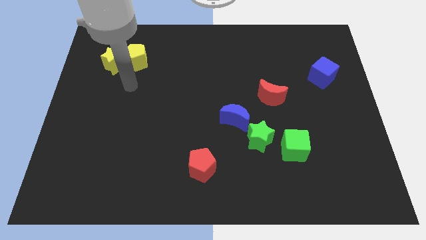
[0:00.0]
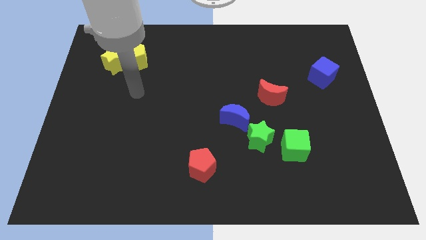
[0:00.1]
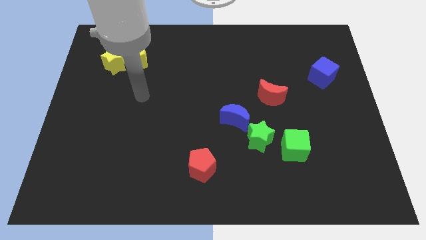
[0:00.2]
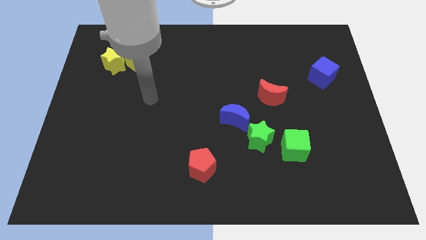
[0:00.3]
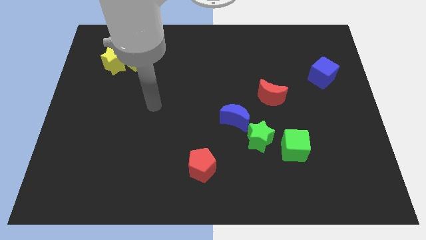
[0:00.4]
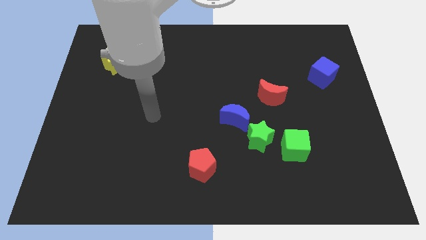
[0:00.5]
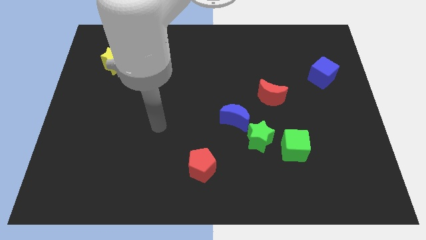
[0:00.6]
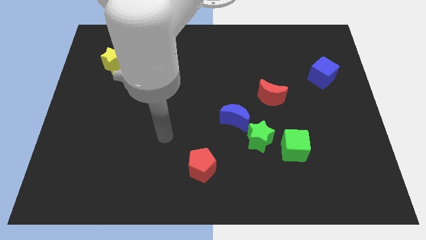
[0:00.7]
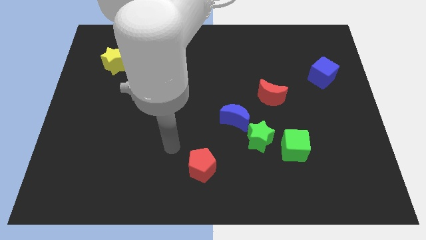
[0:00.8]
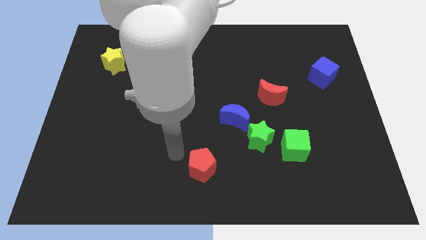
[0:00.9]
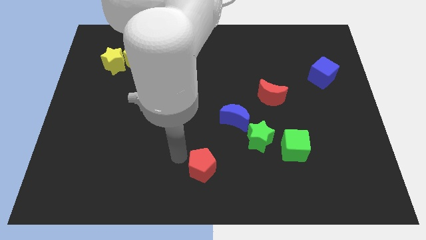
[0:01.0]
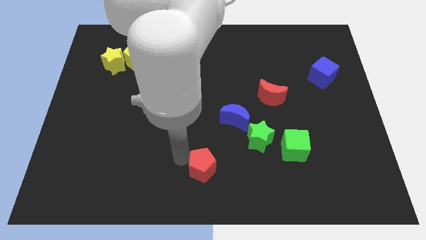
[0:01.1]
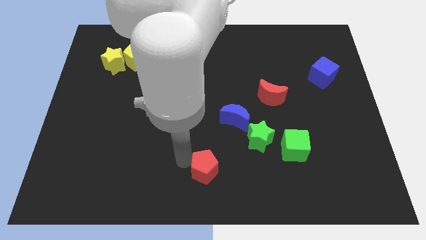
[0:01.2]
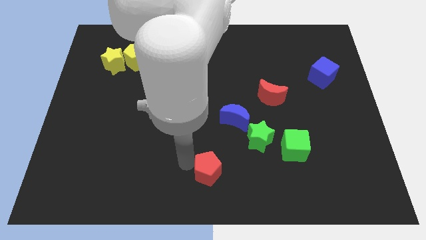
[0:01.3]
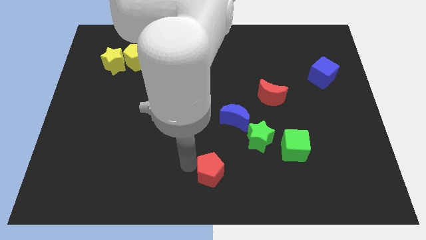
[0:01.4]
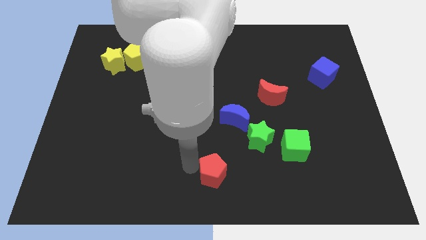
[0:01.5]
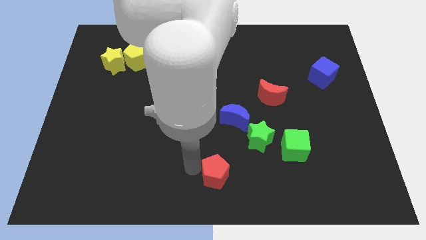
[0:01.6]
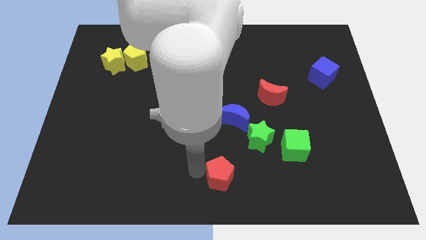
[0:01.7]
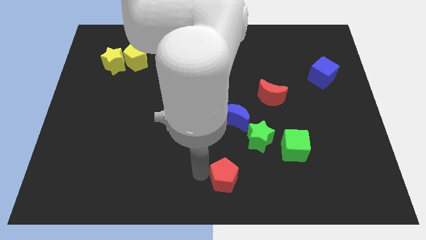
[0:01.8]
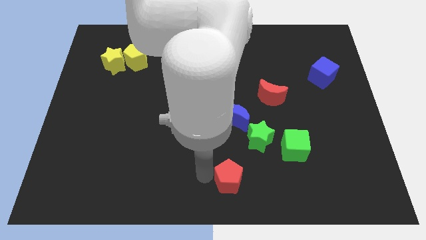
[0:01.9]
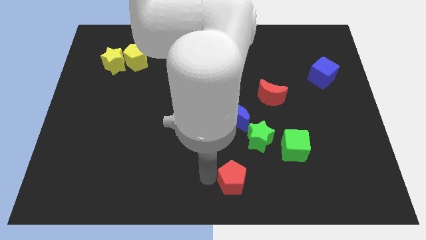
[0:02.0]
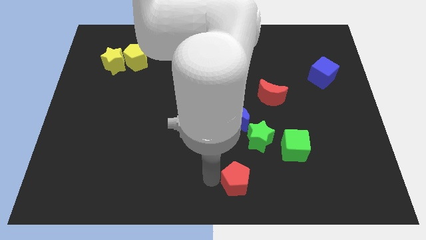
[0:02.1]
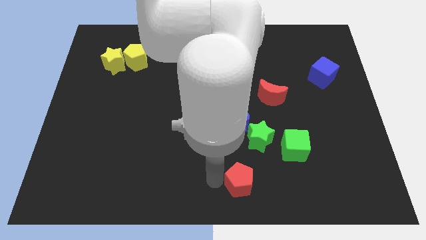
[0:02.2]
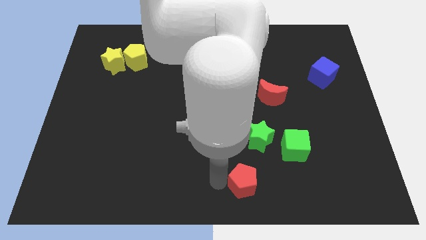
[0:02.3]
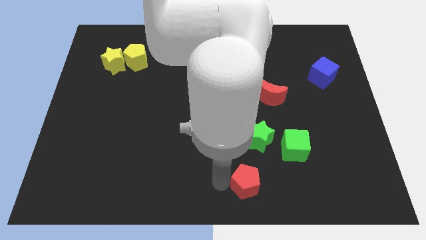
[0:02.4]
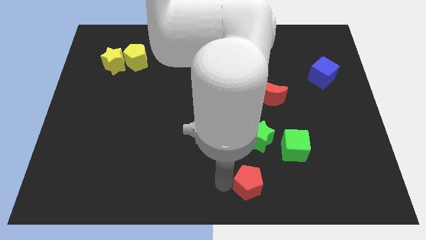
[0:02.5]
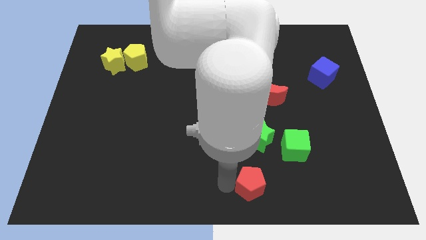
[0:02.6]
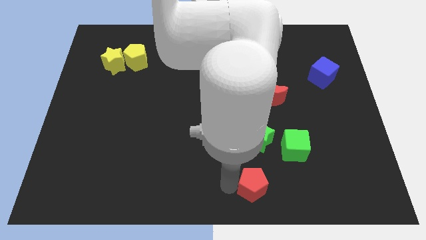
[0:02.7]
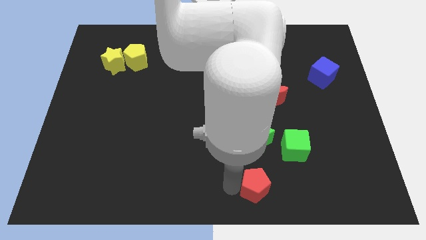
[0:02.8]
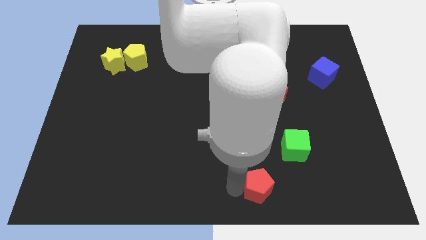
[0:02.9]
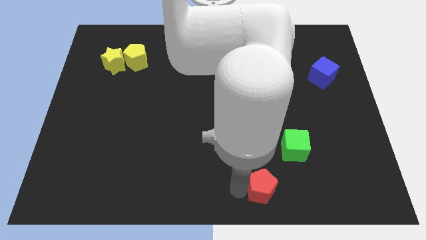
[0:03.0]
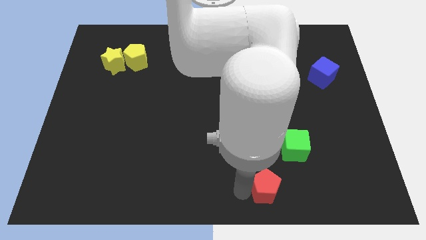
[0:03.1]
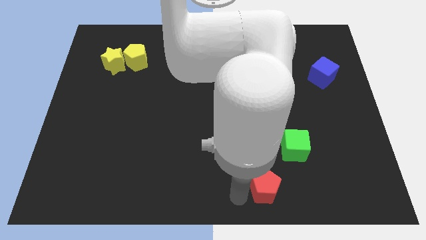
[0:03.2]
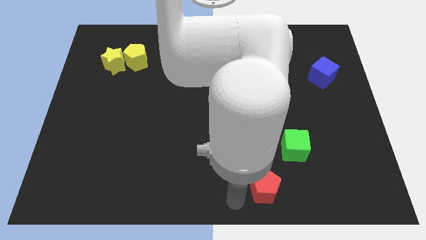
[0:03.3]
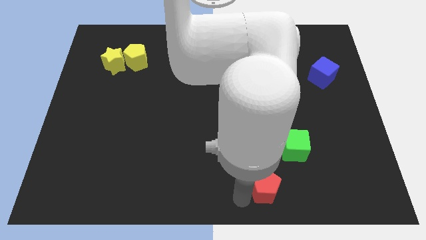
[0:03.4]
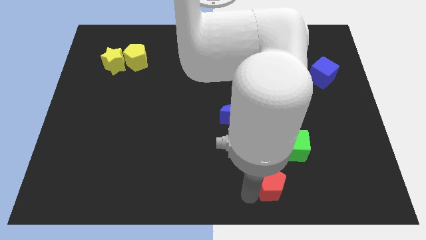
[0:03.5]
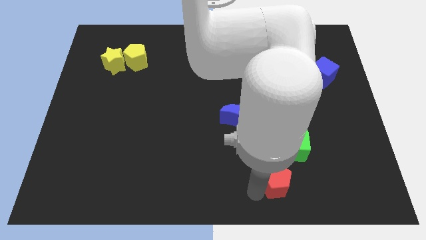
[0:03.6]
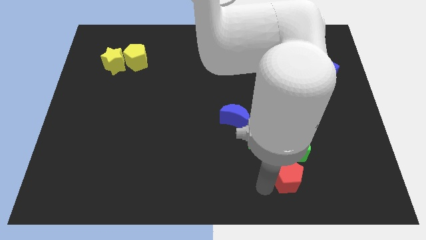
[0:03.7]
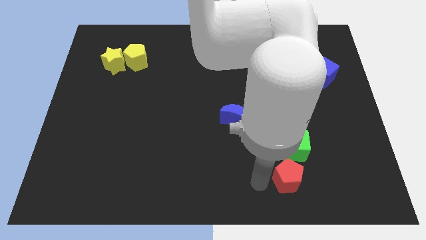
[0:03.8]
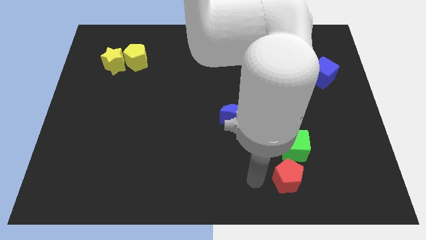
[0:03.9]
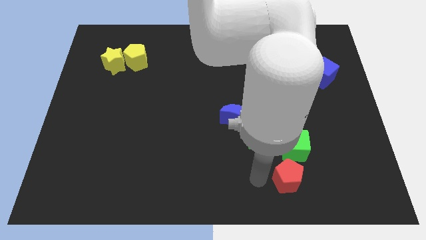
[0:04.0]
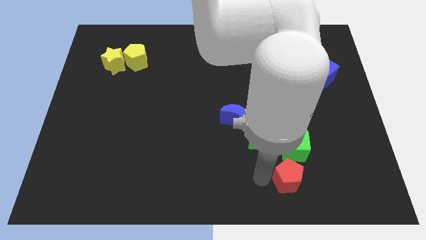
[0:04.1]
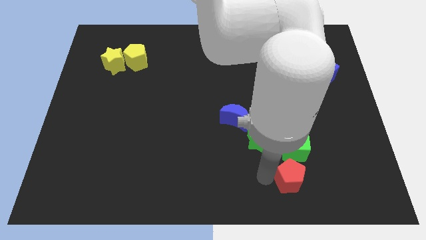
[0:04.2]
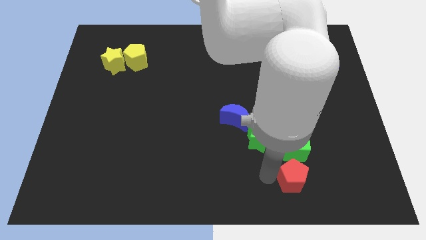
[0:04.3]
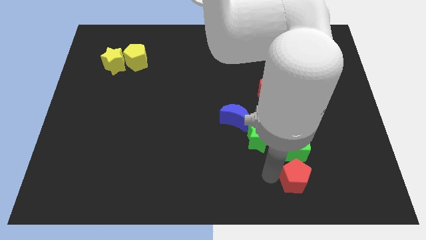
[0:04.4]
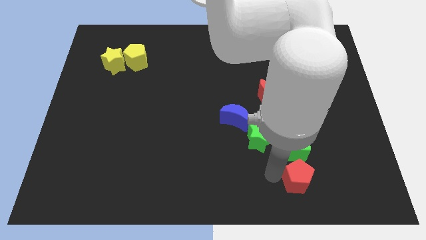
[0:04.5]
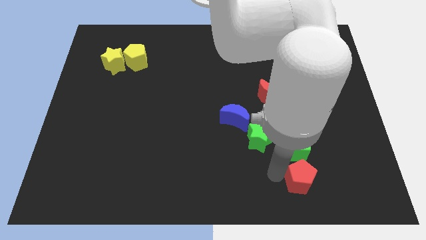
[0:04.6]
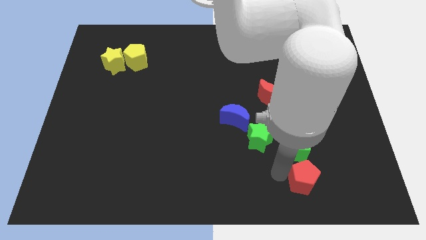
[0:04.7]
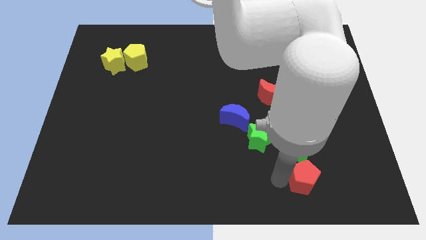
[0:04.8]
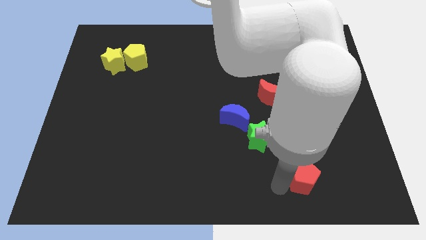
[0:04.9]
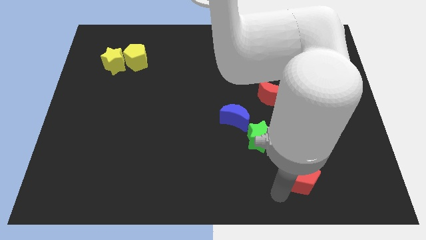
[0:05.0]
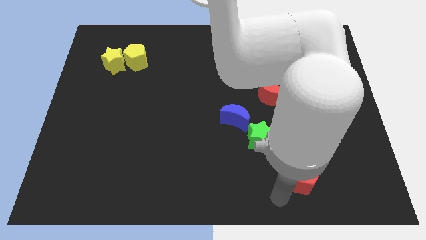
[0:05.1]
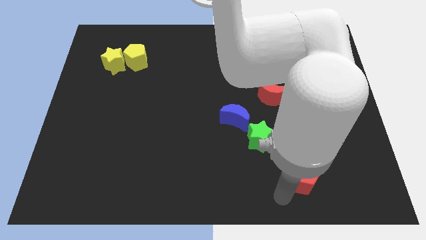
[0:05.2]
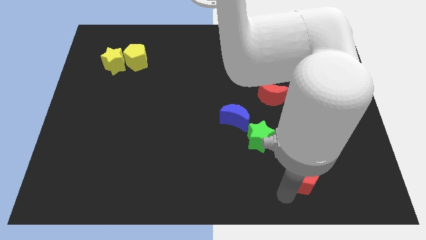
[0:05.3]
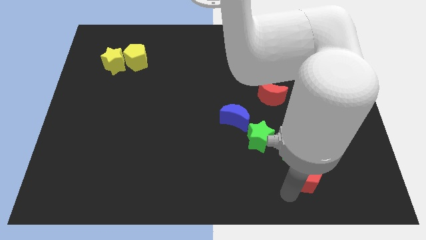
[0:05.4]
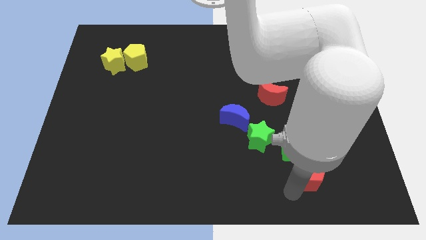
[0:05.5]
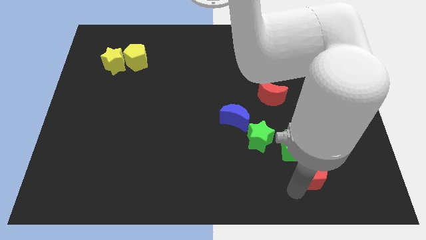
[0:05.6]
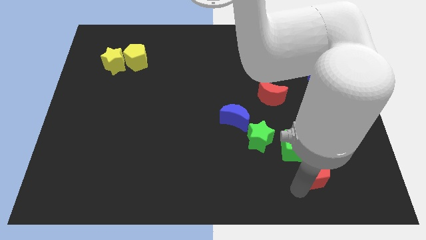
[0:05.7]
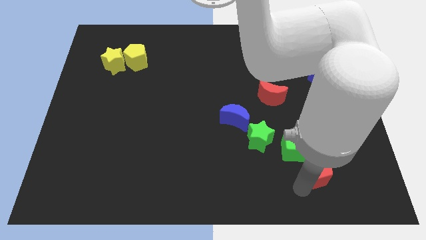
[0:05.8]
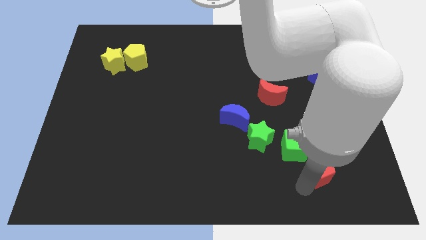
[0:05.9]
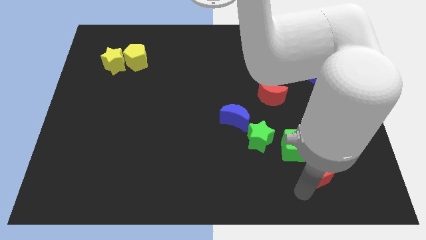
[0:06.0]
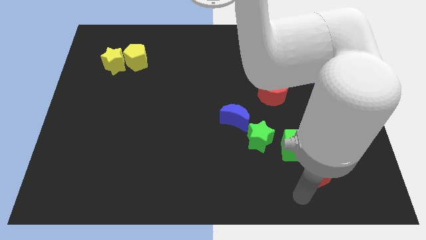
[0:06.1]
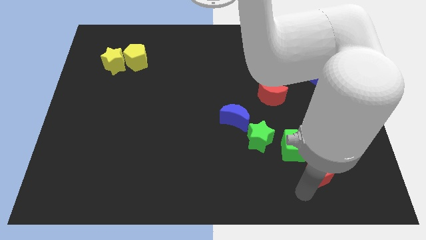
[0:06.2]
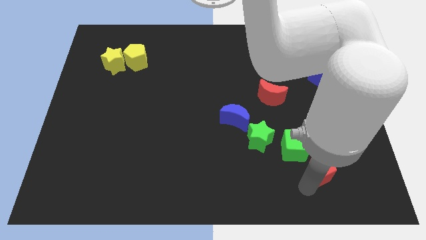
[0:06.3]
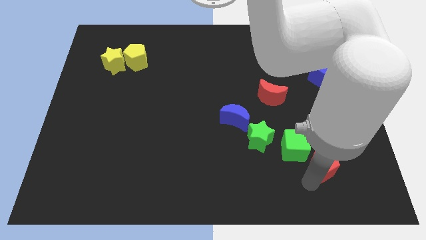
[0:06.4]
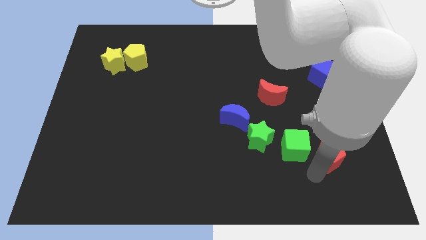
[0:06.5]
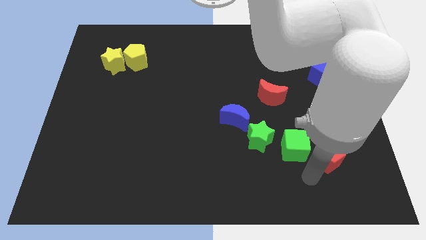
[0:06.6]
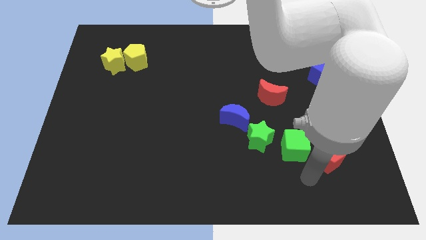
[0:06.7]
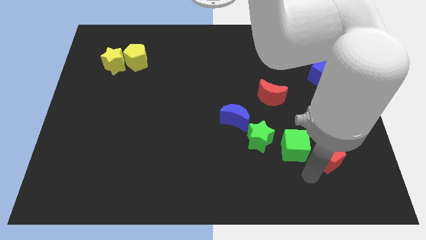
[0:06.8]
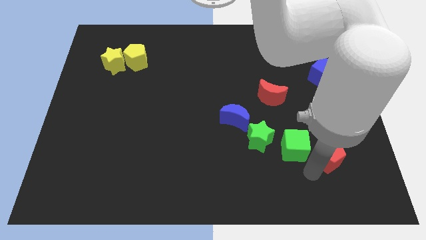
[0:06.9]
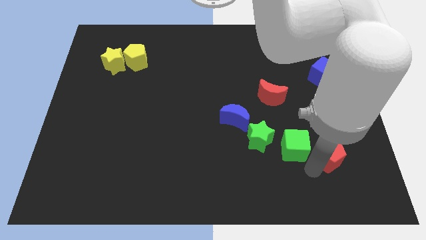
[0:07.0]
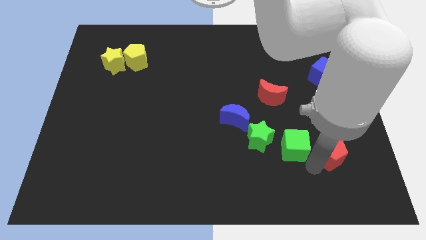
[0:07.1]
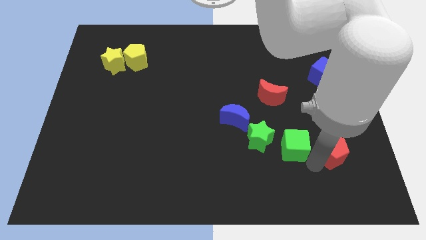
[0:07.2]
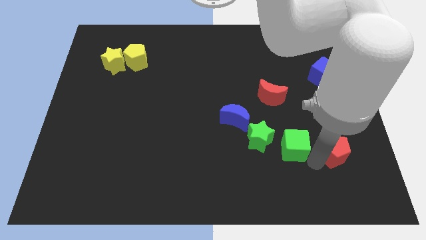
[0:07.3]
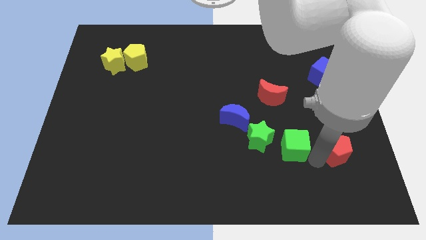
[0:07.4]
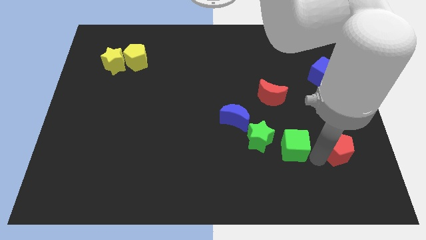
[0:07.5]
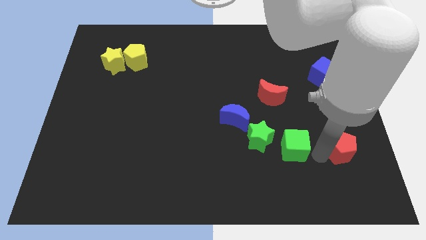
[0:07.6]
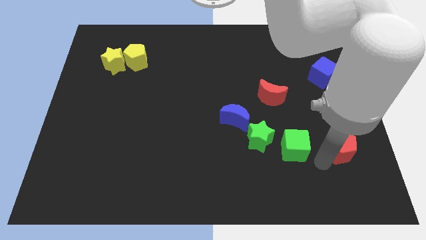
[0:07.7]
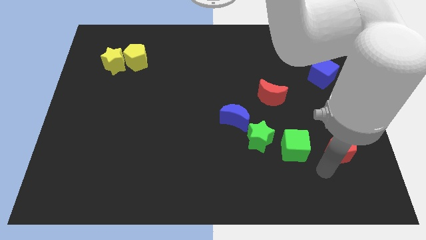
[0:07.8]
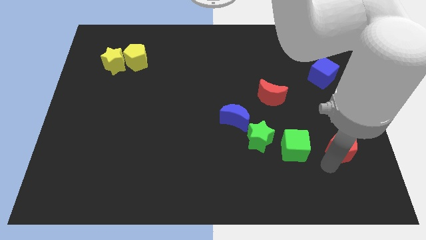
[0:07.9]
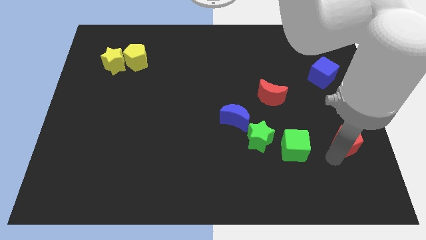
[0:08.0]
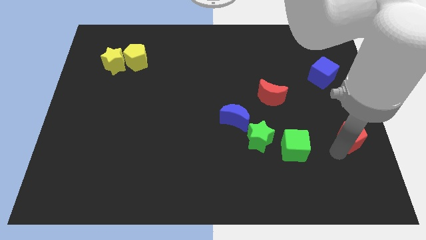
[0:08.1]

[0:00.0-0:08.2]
push the red pentagon to the right side of the board
